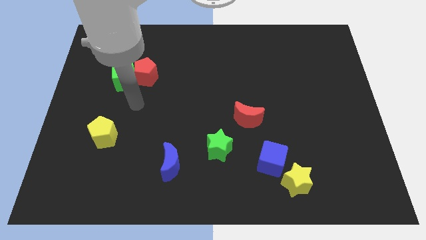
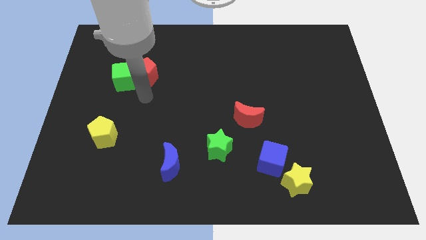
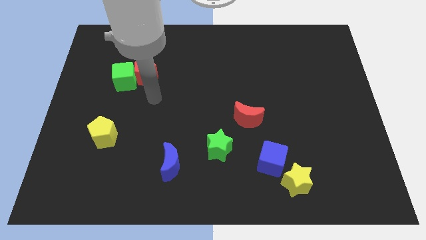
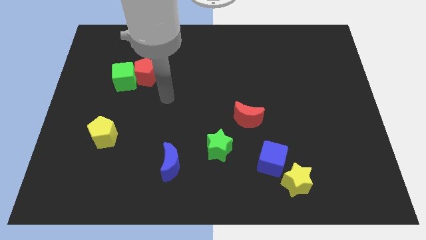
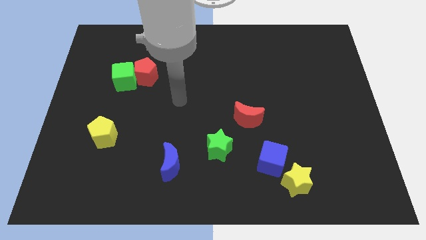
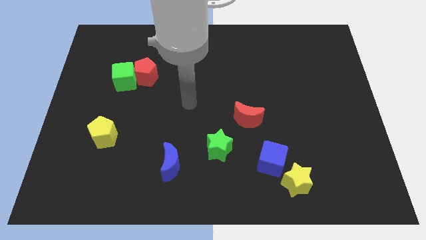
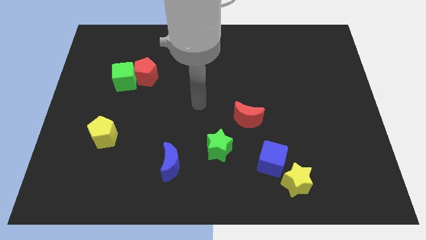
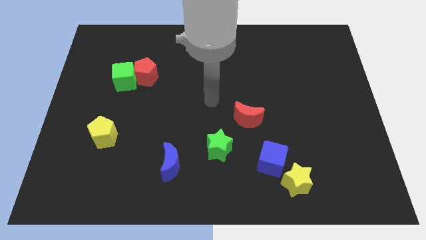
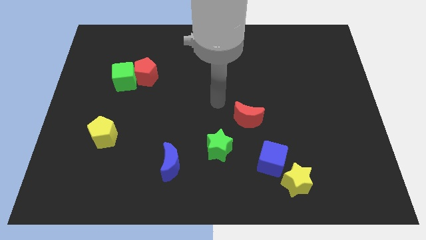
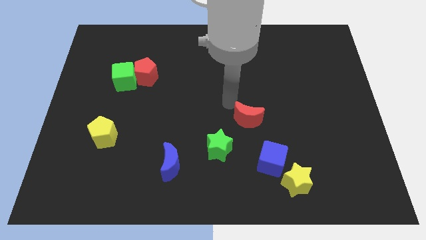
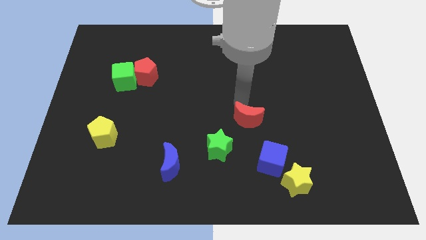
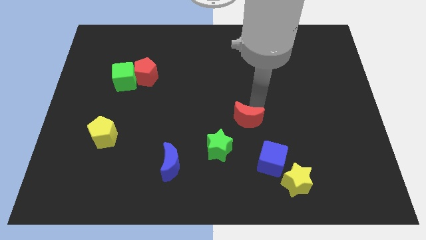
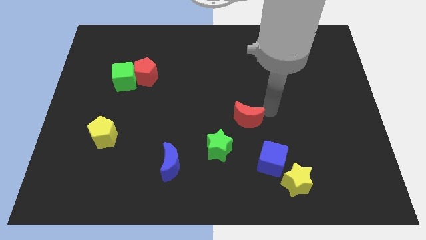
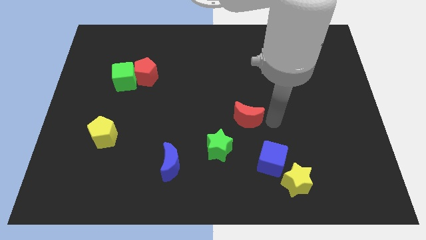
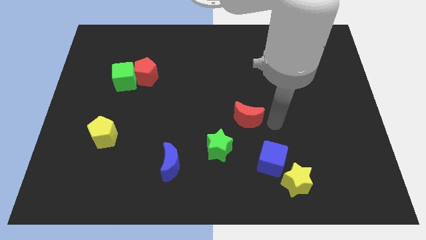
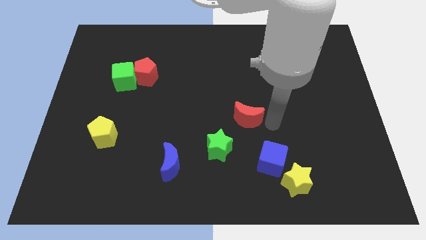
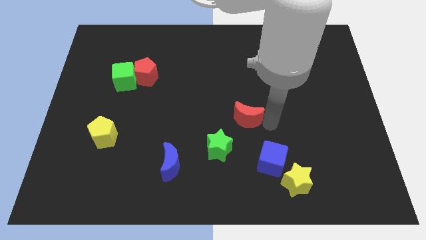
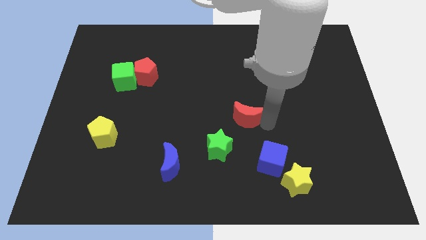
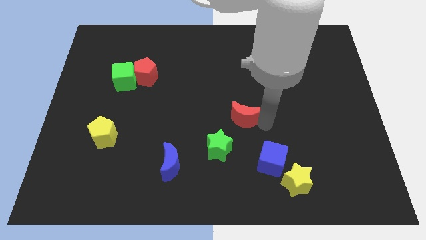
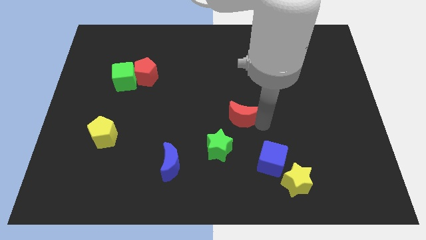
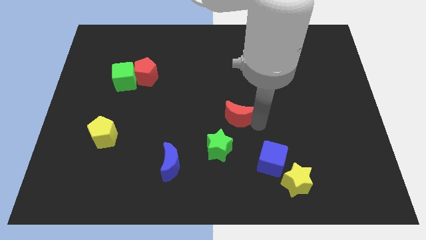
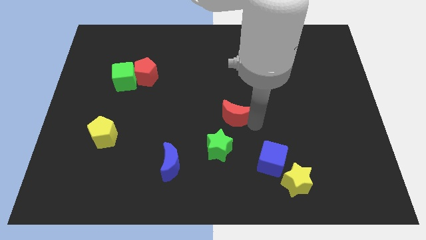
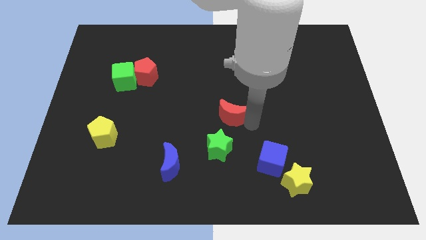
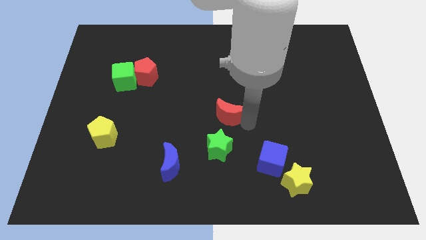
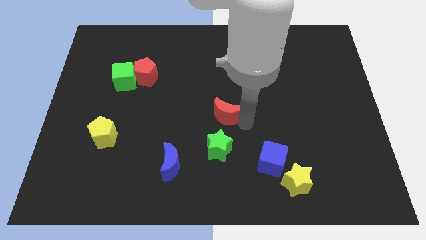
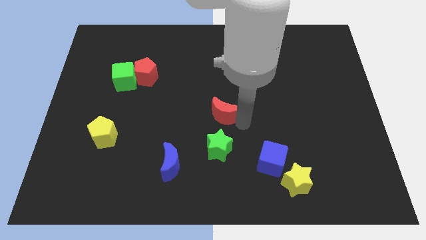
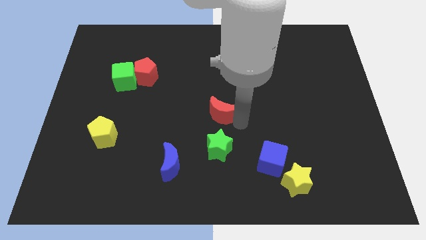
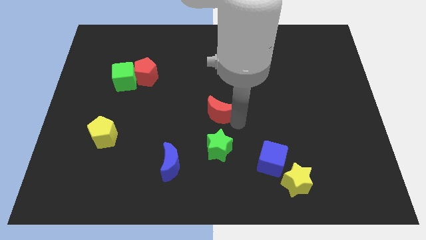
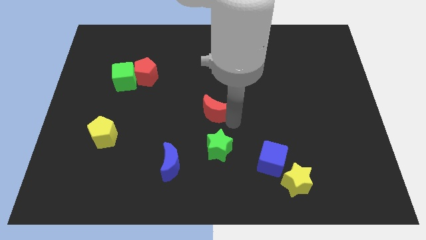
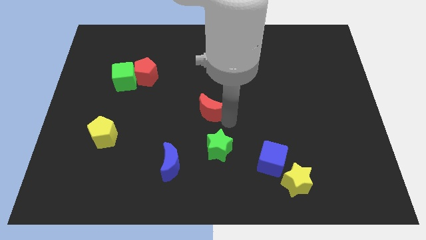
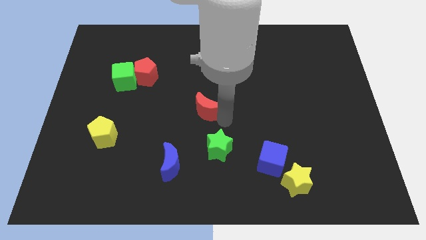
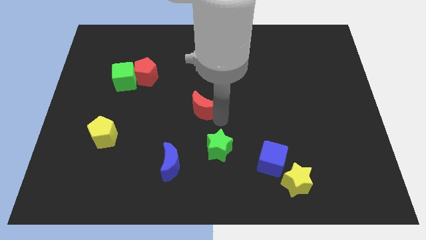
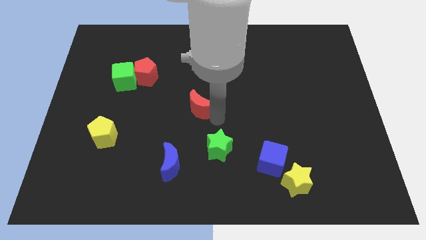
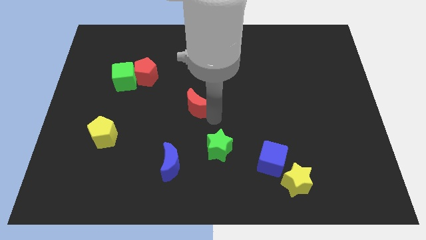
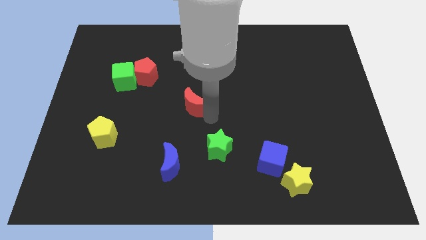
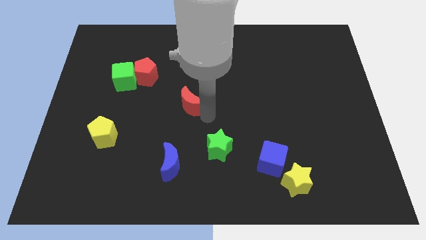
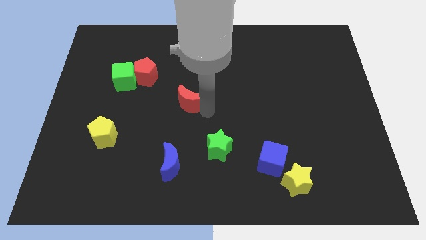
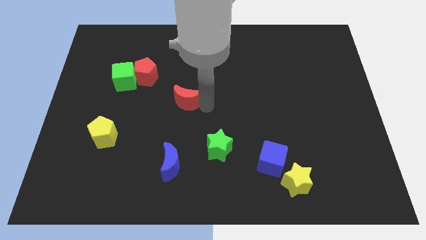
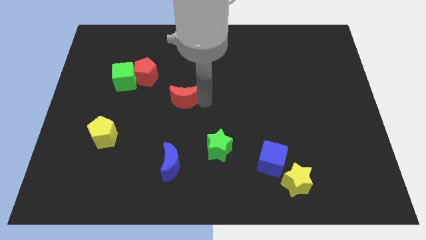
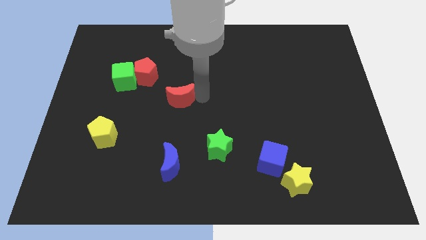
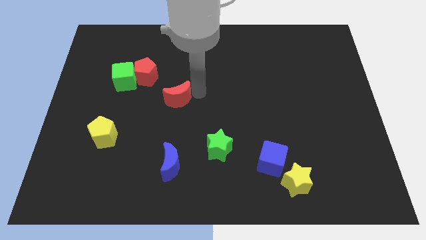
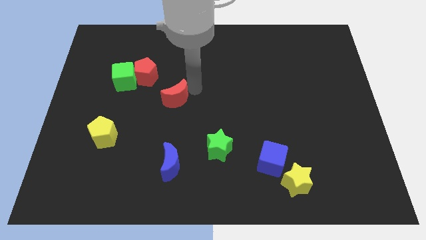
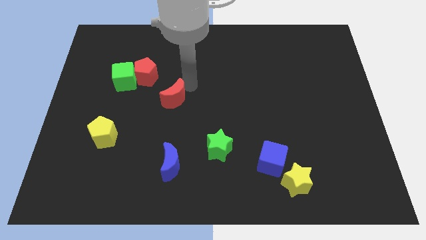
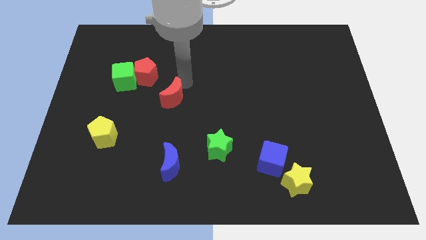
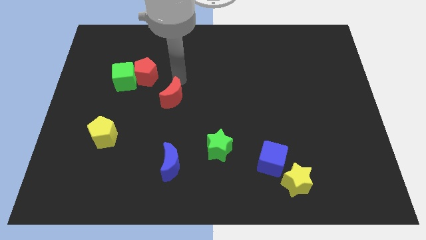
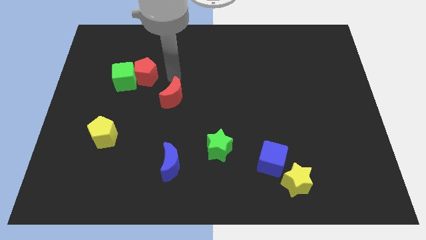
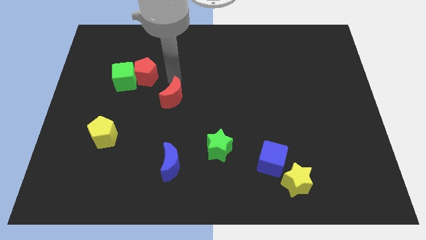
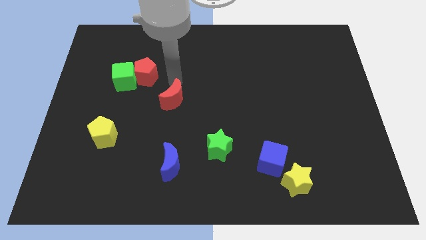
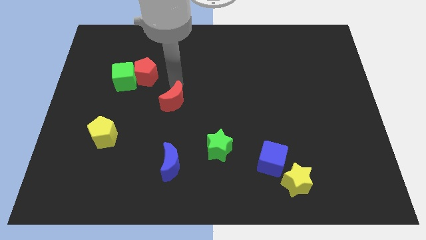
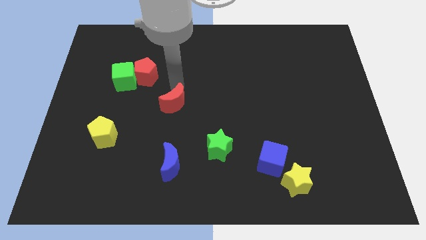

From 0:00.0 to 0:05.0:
put the red moon above the blue moon

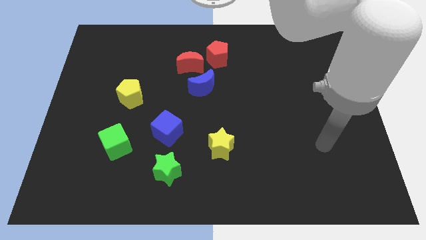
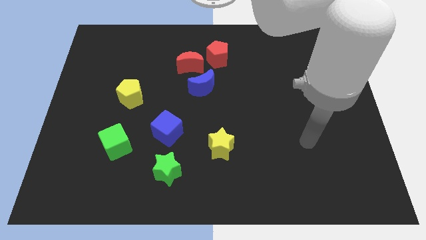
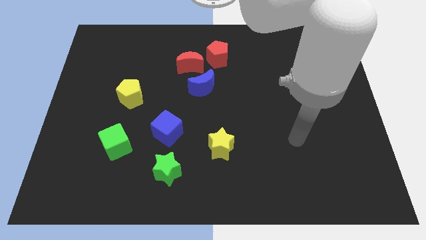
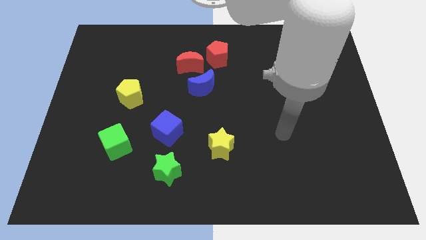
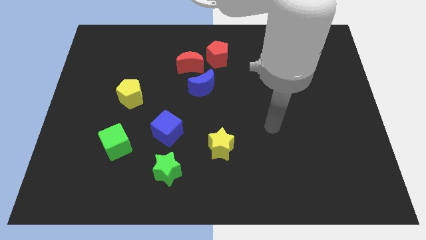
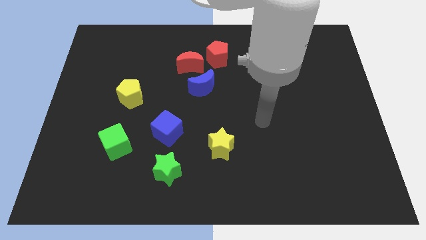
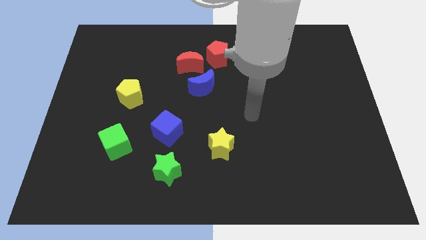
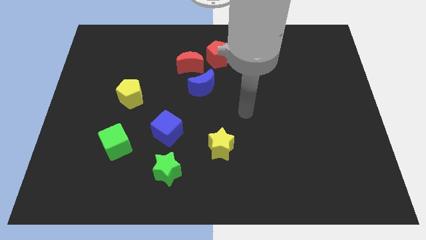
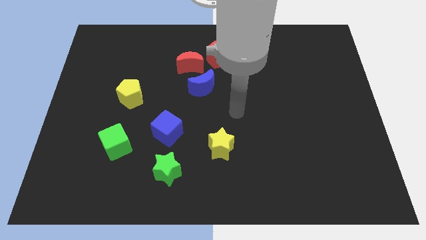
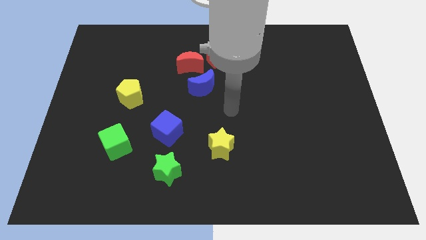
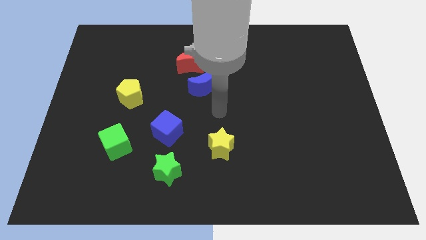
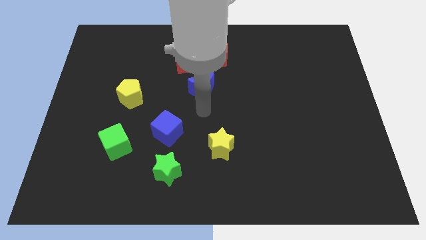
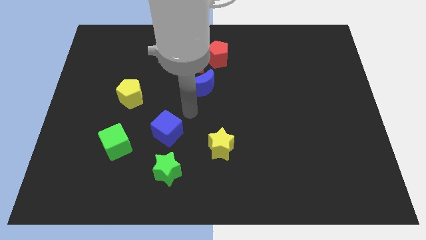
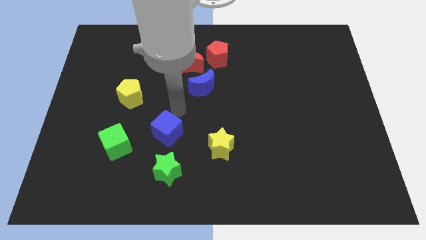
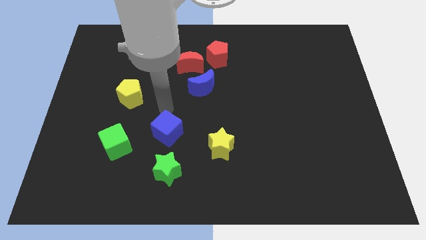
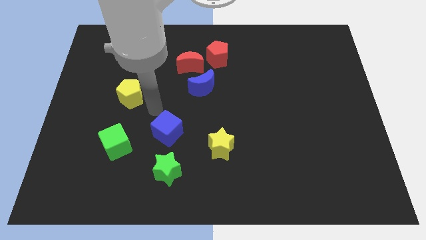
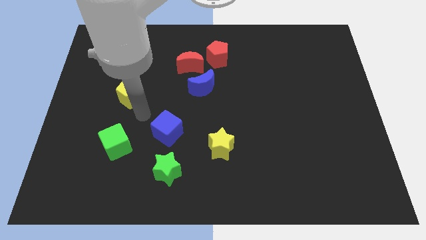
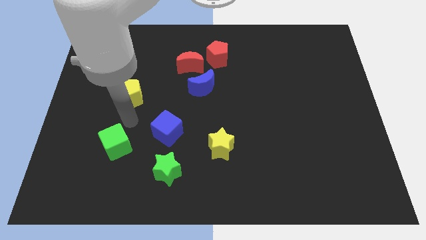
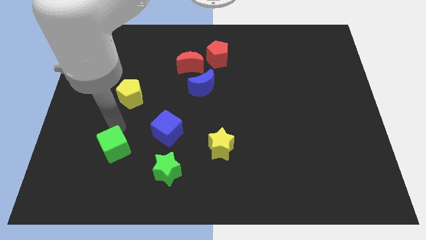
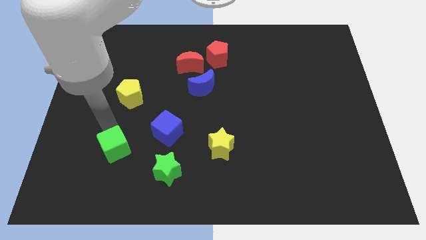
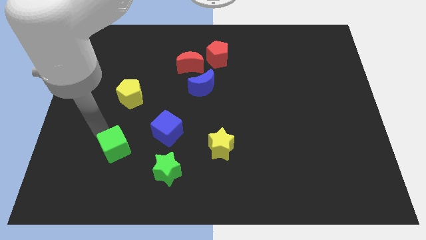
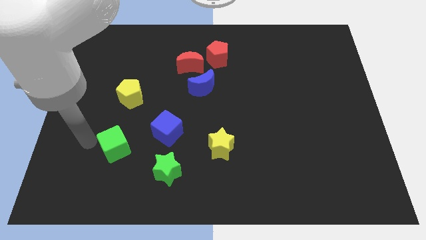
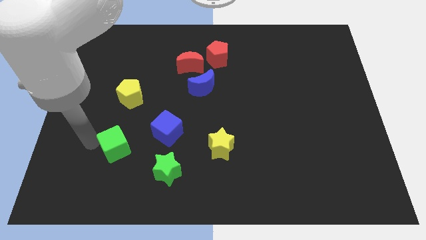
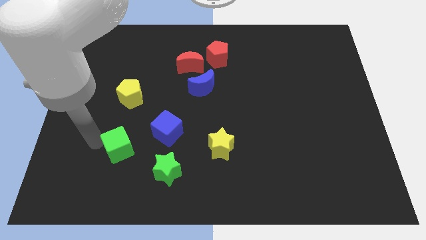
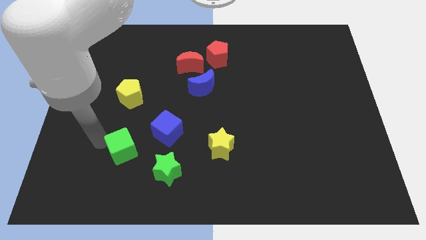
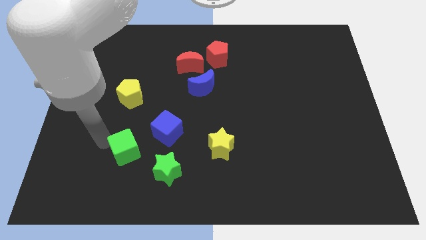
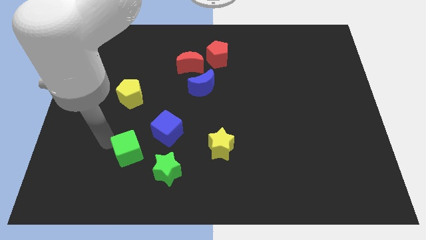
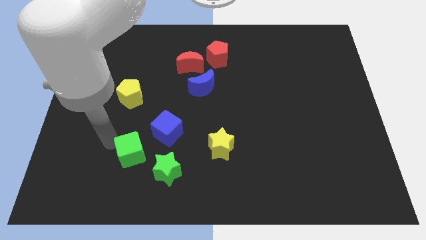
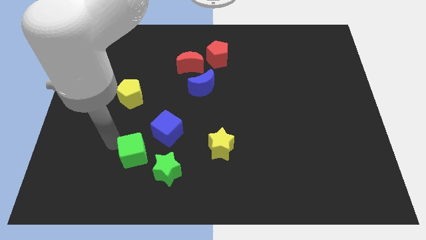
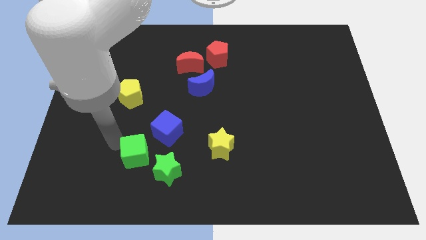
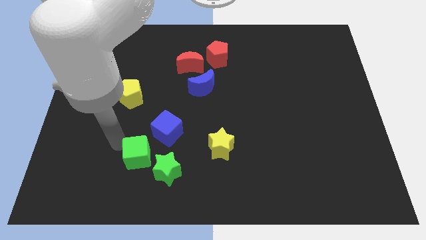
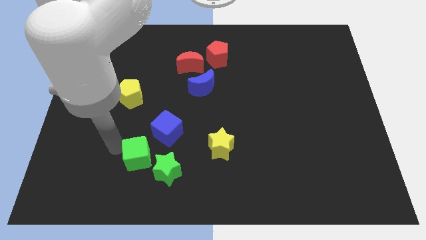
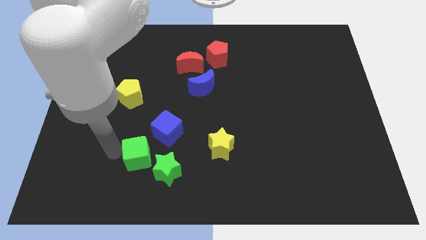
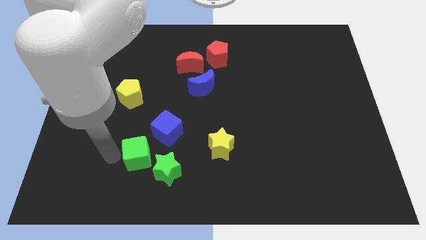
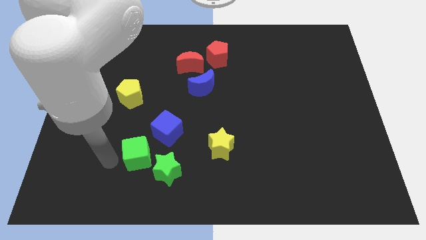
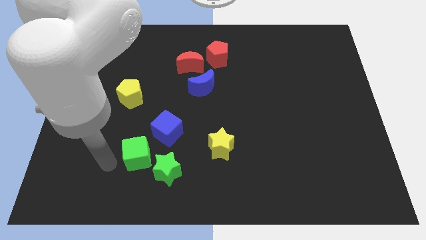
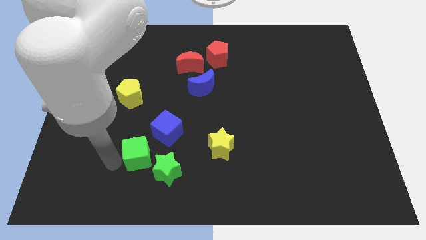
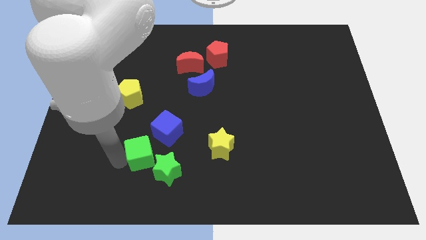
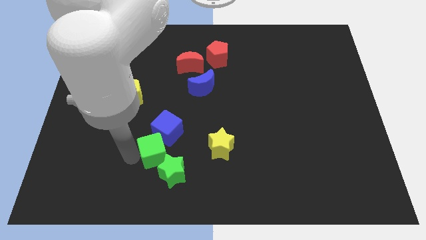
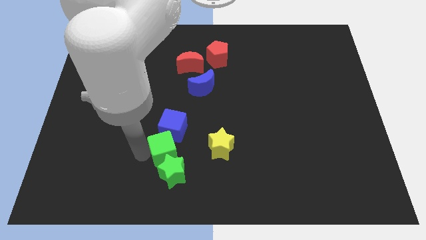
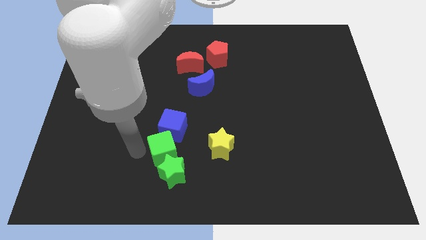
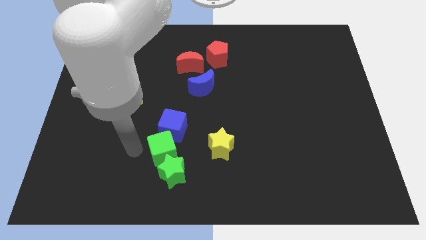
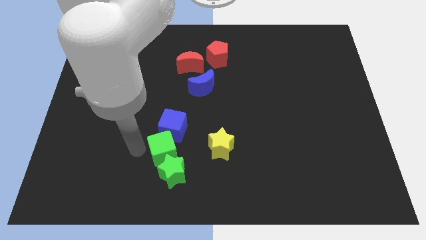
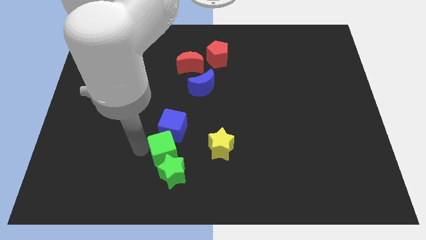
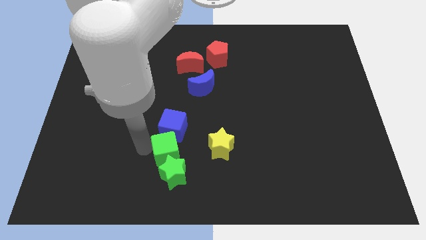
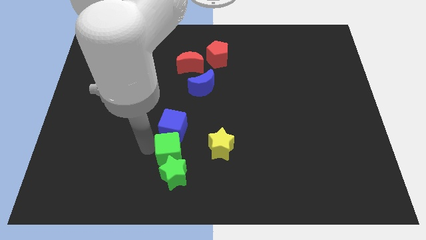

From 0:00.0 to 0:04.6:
push the green cube to the top right of the green star
